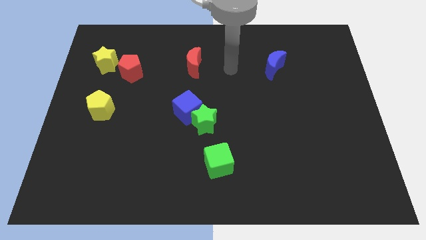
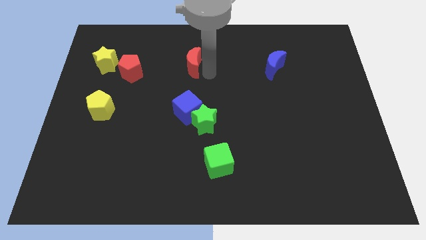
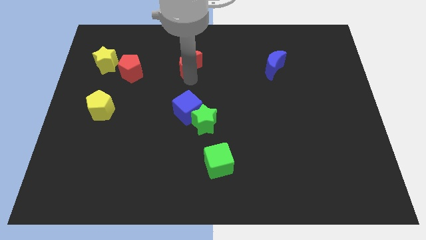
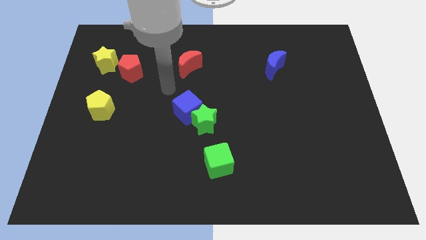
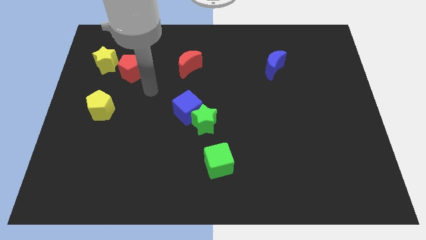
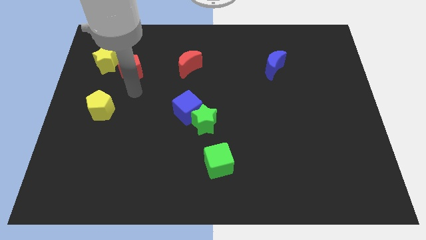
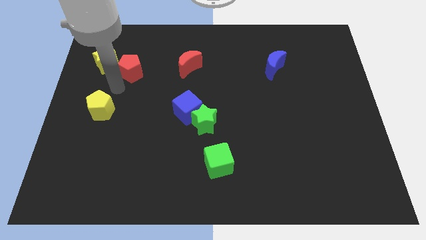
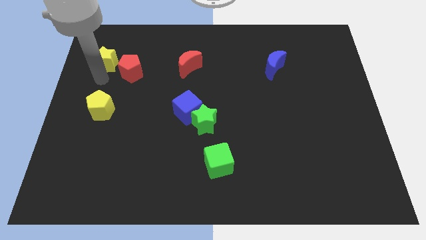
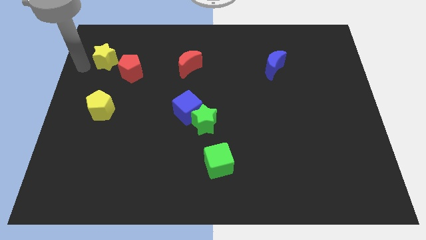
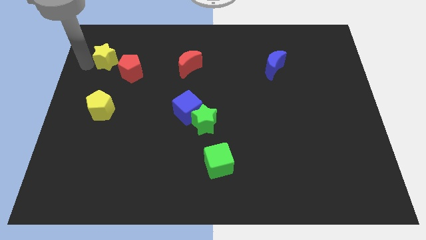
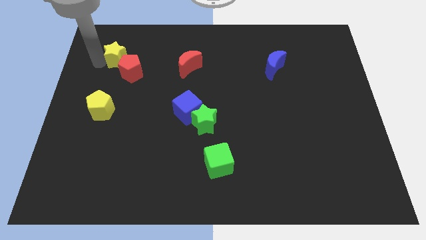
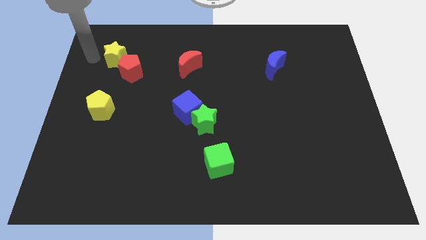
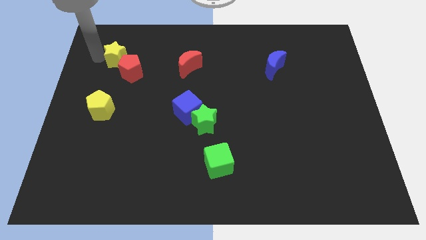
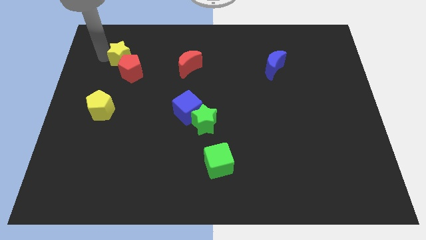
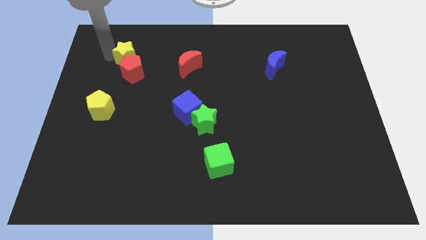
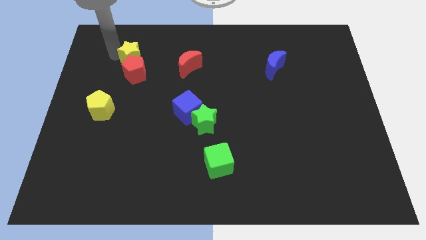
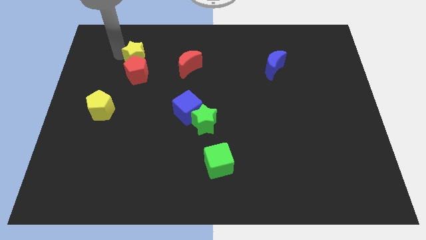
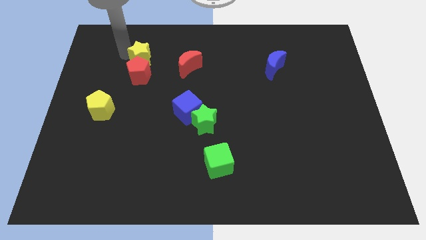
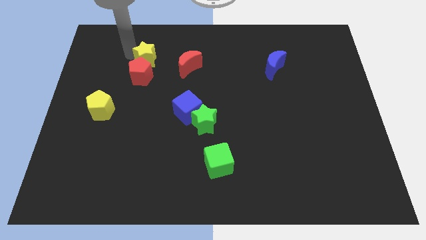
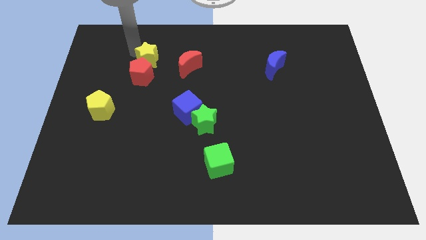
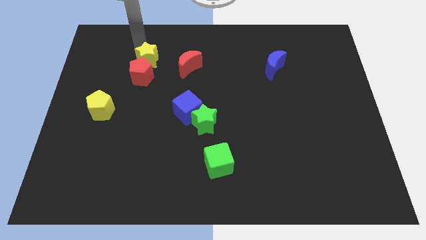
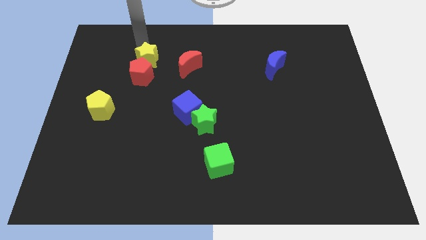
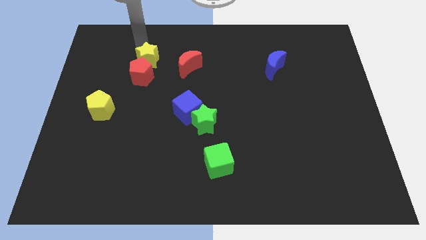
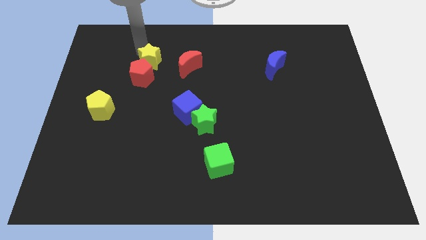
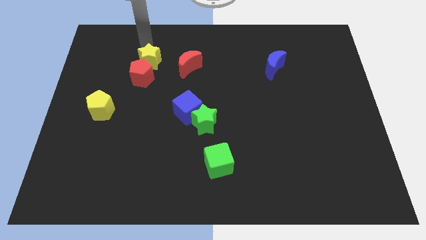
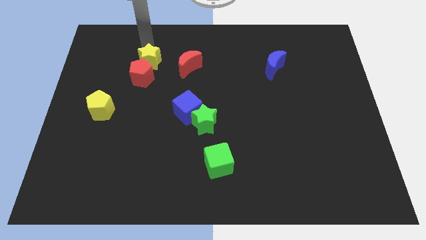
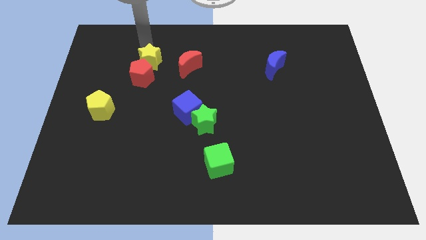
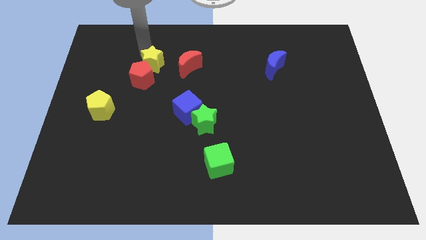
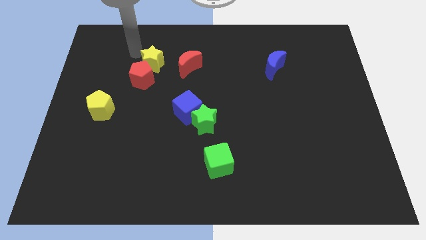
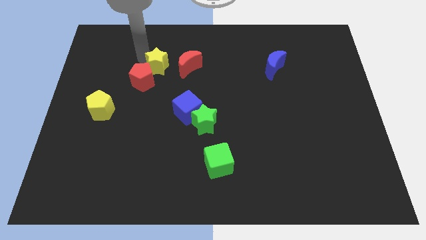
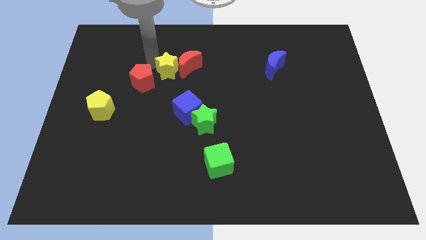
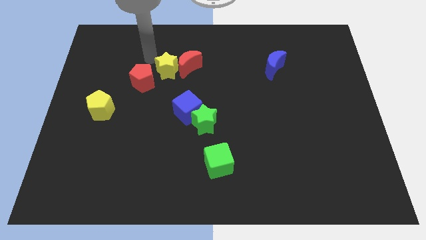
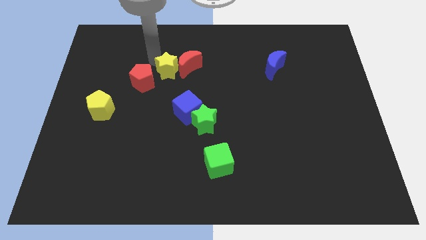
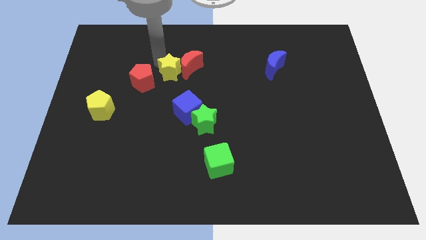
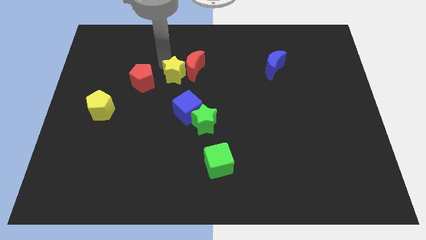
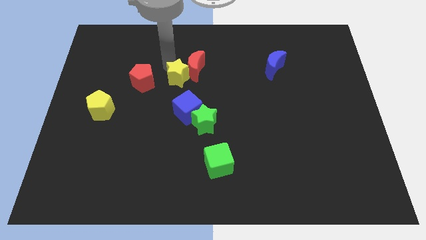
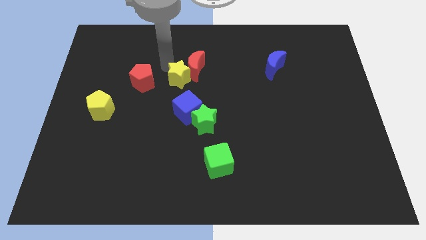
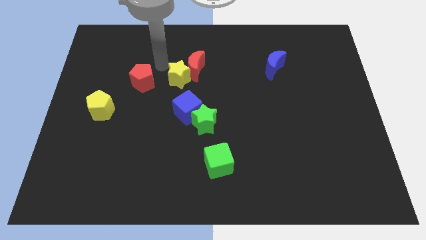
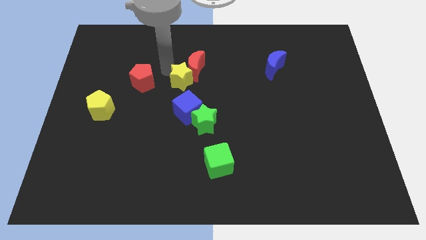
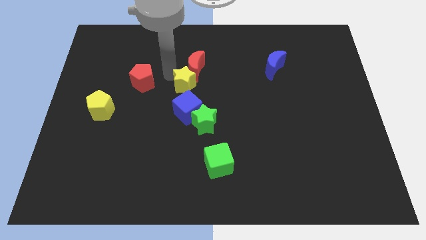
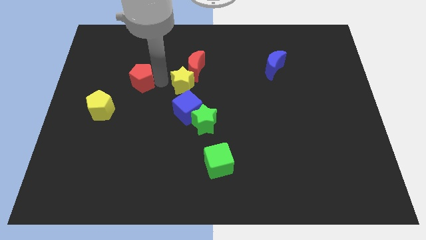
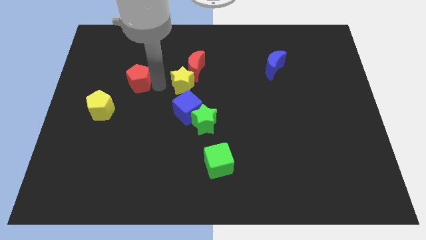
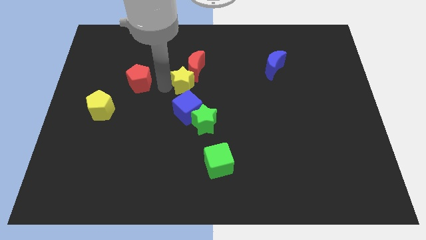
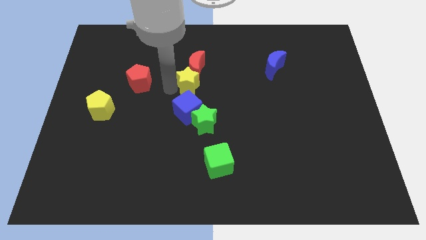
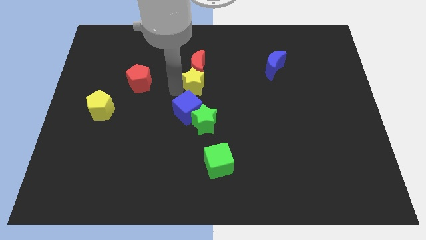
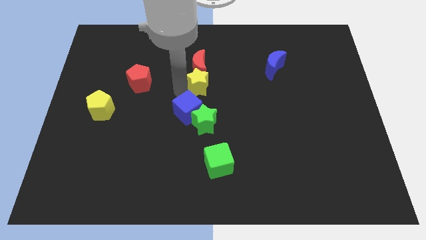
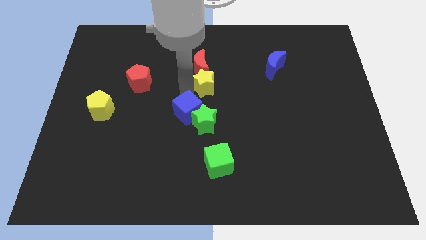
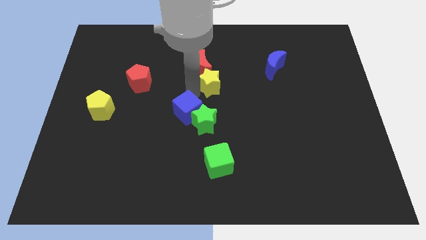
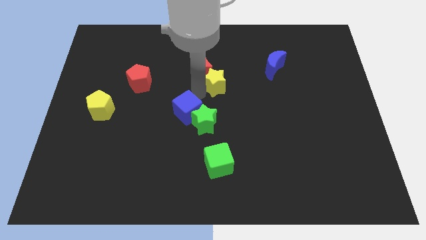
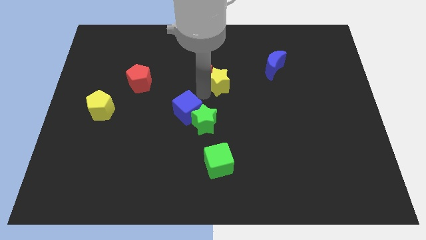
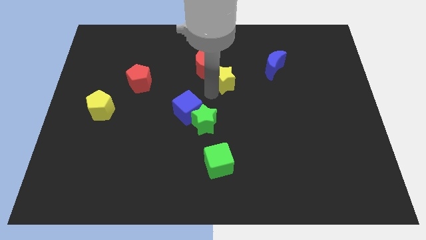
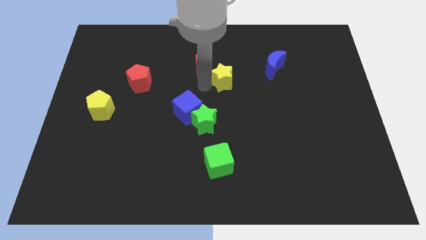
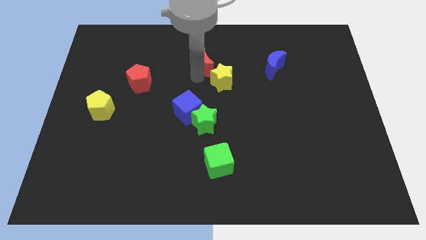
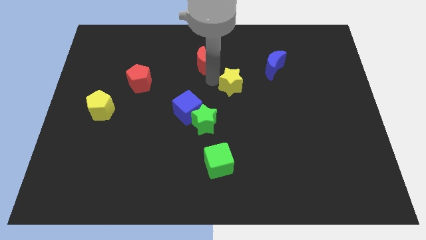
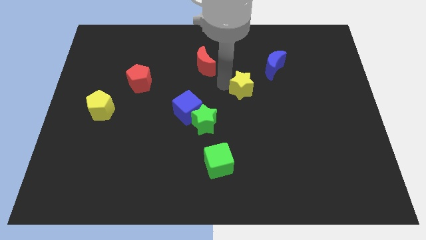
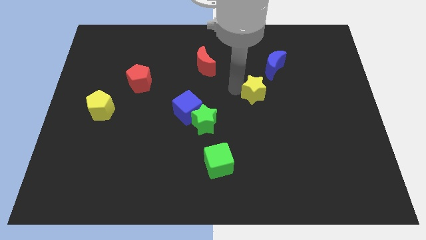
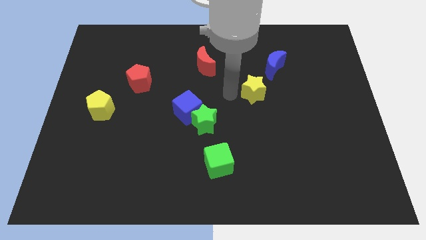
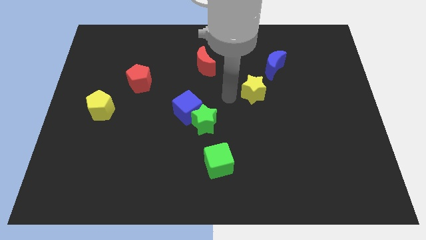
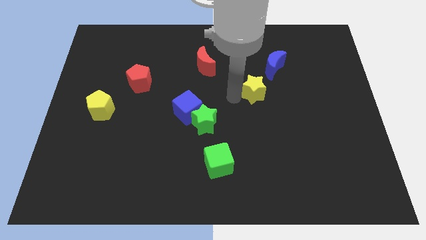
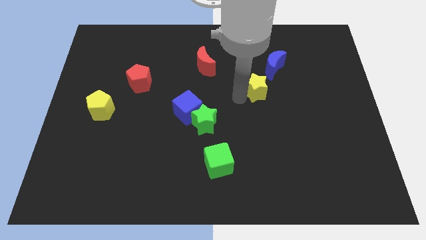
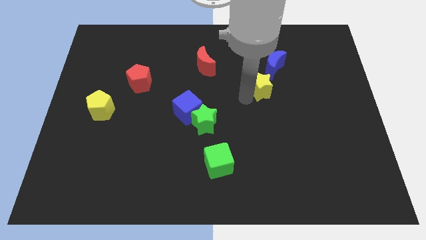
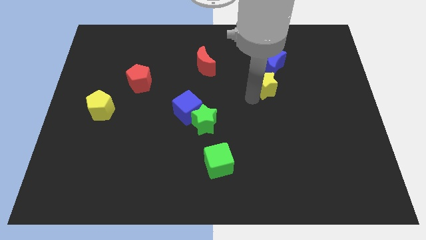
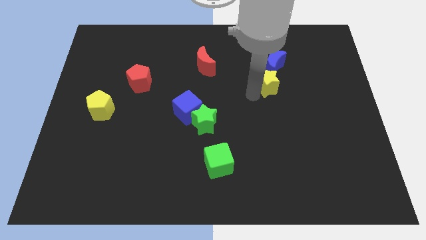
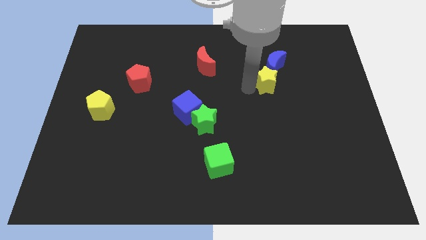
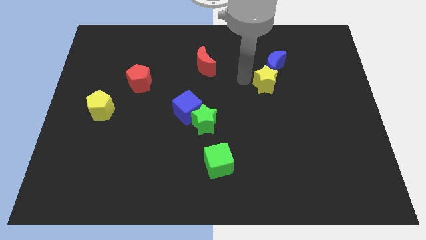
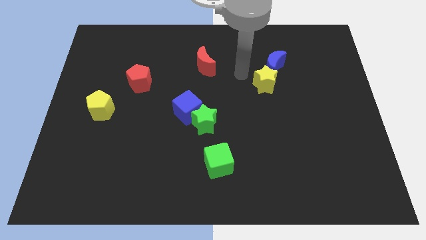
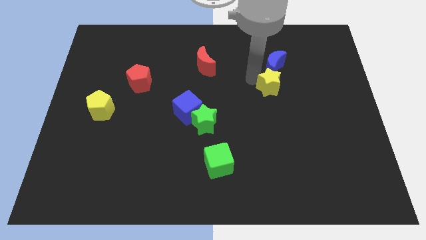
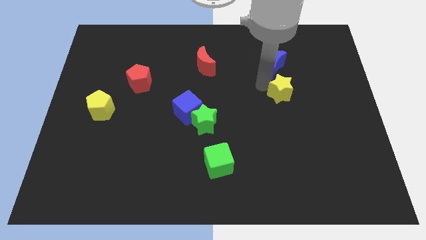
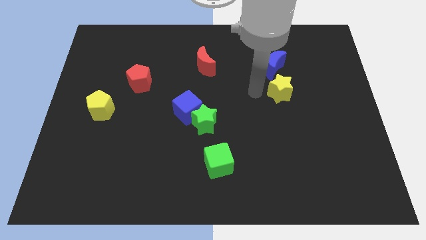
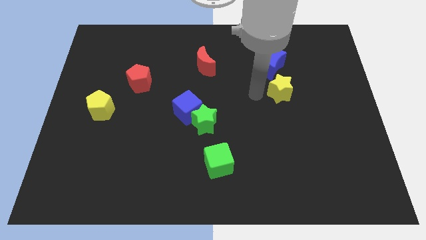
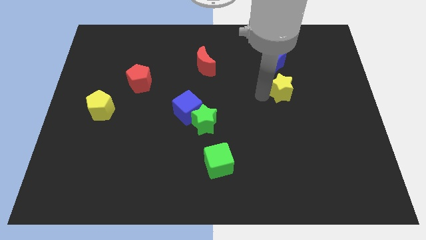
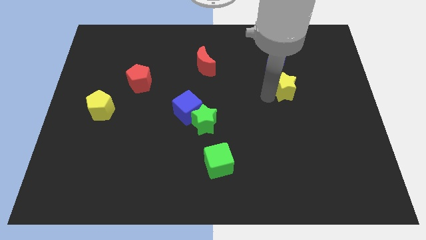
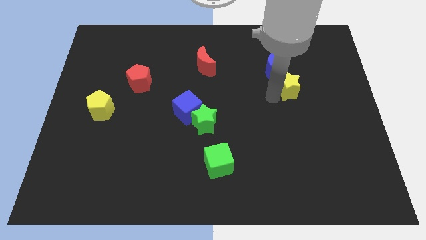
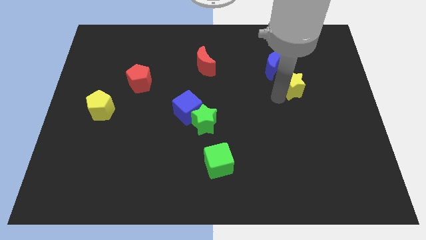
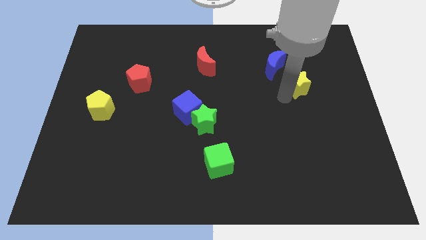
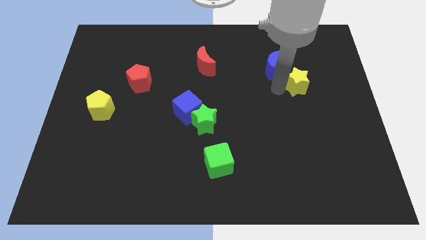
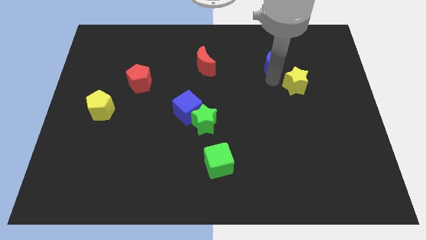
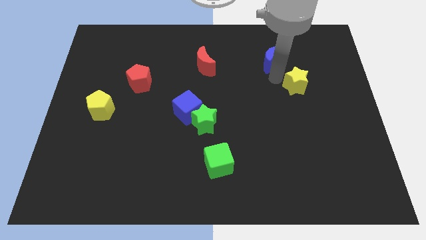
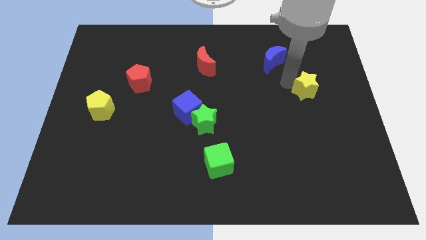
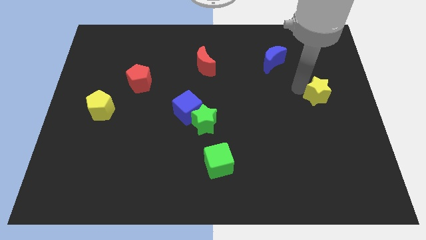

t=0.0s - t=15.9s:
move the yellow star to the right side of the board

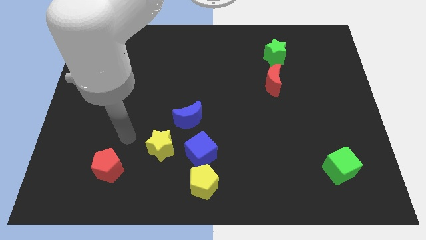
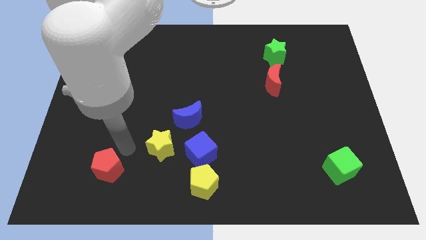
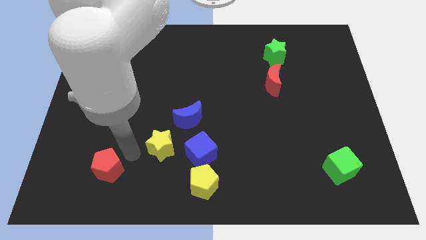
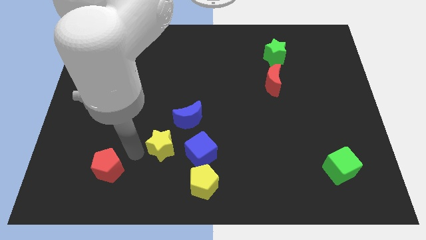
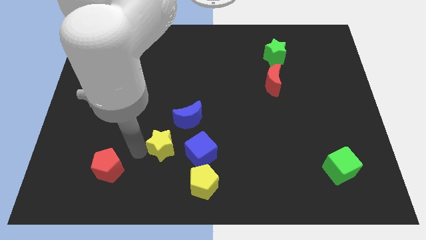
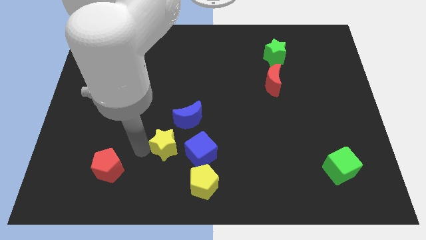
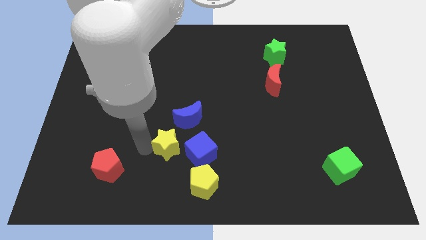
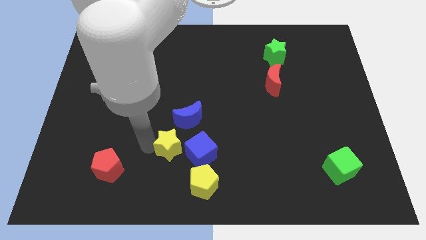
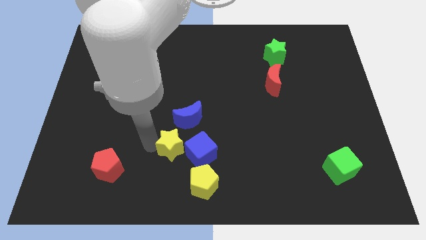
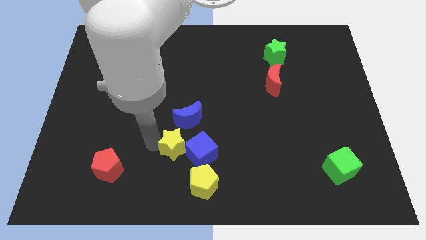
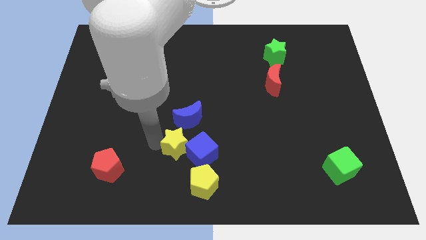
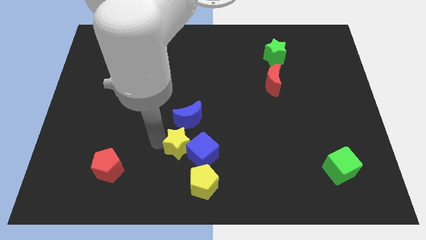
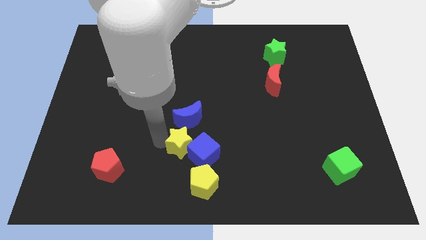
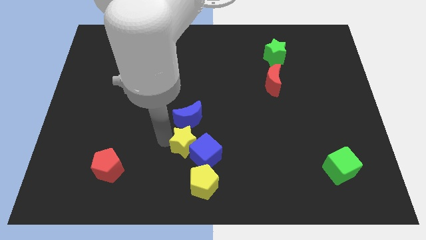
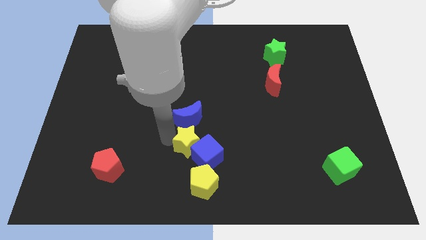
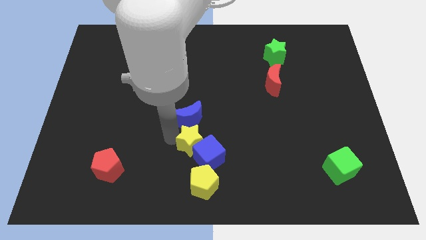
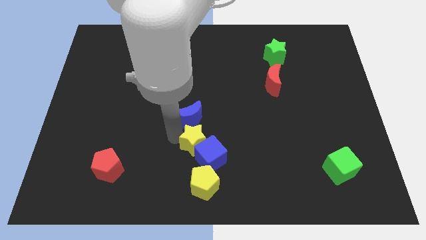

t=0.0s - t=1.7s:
slide the yellow star to the middle of the board
